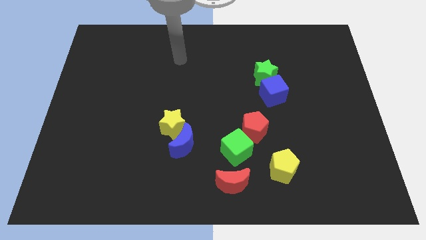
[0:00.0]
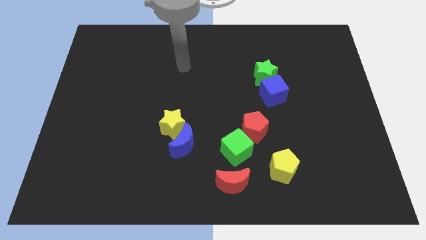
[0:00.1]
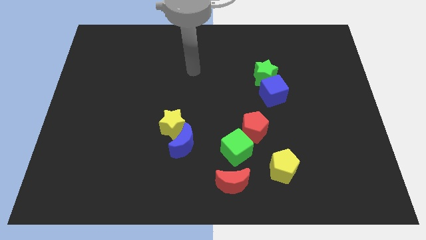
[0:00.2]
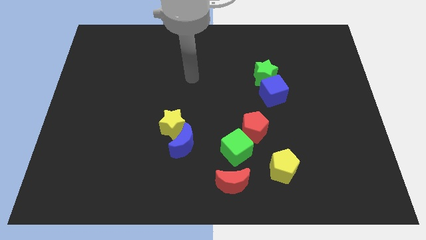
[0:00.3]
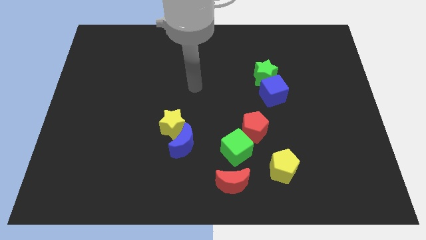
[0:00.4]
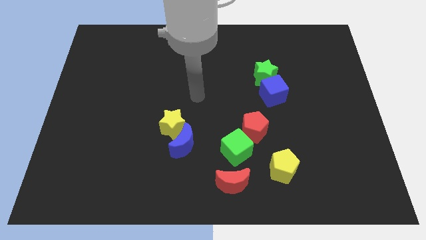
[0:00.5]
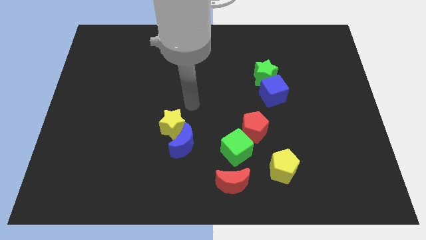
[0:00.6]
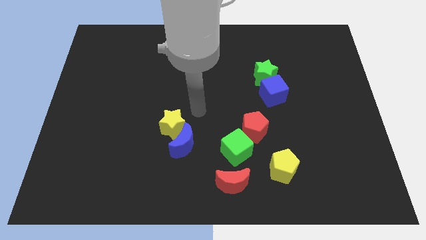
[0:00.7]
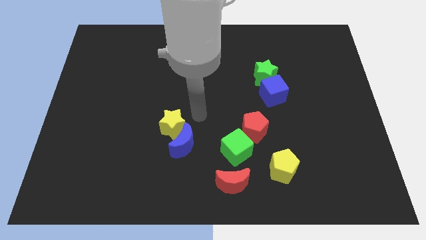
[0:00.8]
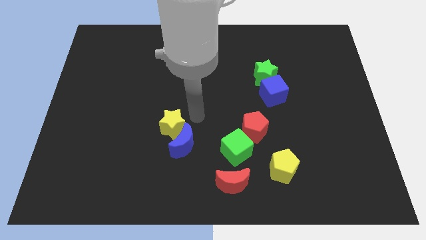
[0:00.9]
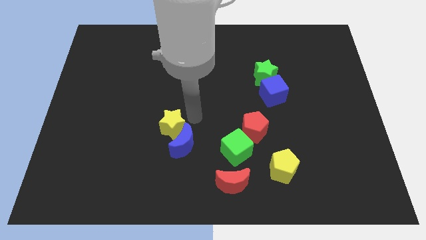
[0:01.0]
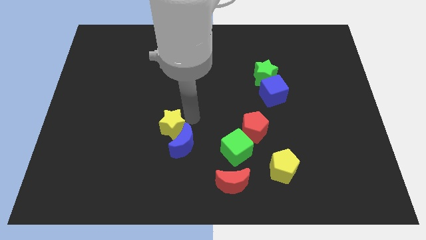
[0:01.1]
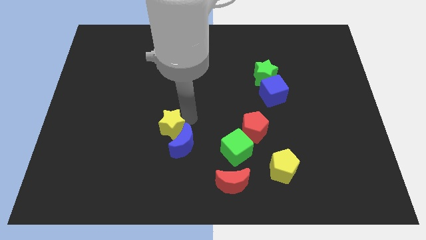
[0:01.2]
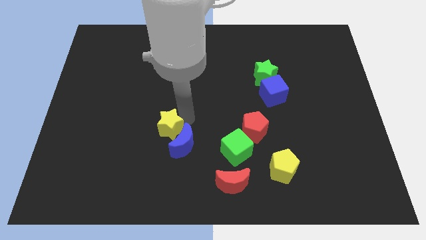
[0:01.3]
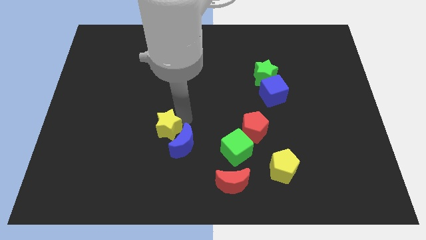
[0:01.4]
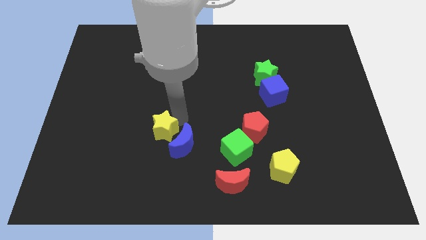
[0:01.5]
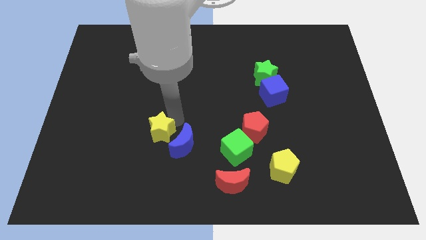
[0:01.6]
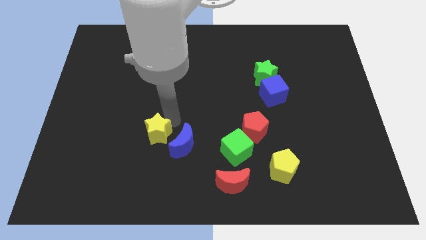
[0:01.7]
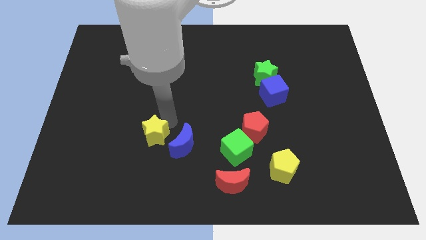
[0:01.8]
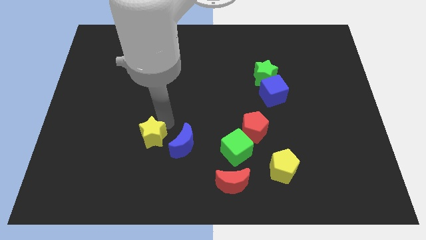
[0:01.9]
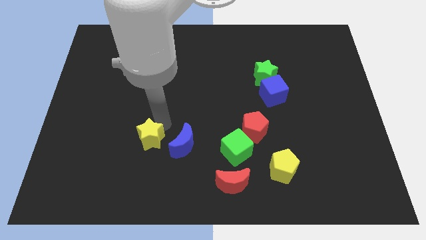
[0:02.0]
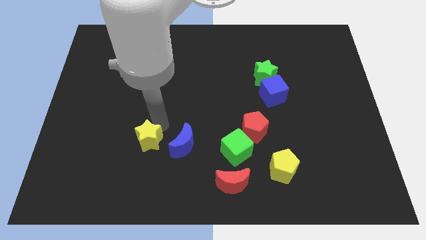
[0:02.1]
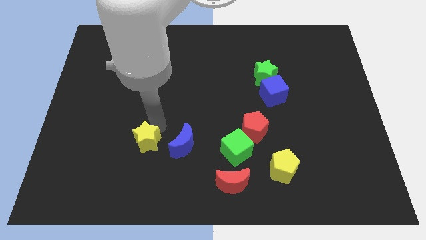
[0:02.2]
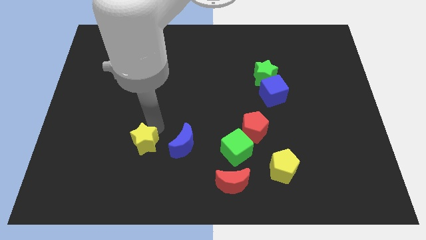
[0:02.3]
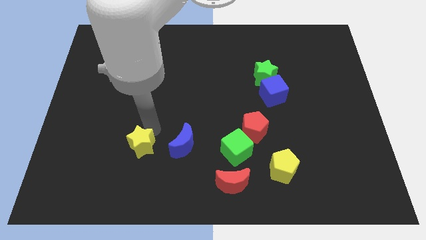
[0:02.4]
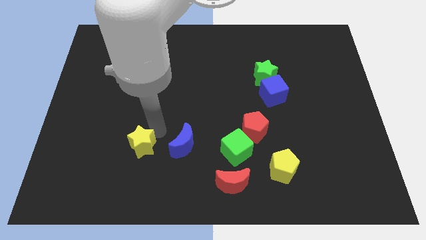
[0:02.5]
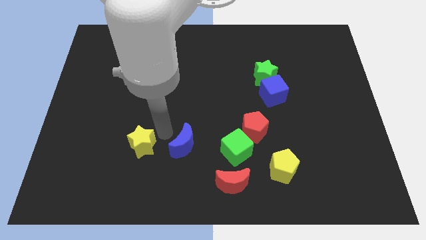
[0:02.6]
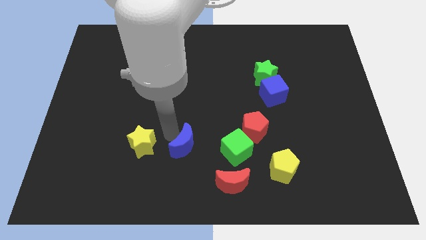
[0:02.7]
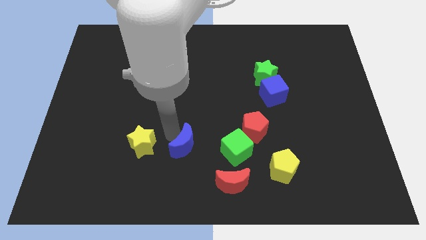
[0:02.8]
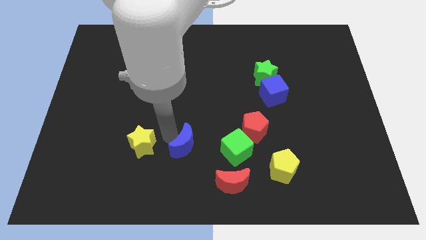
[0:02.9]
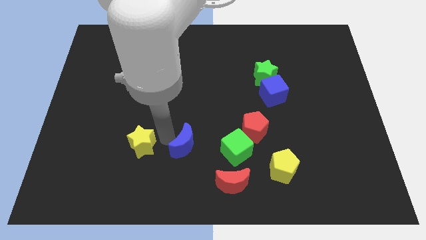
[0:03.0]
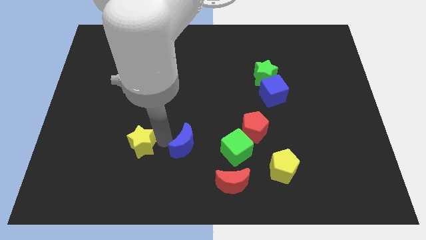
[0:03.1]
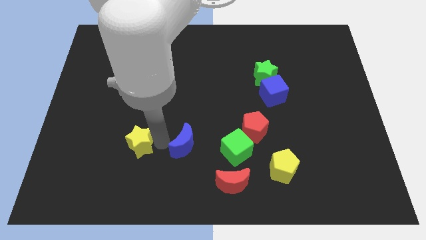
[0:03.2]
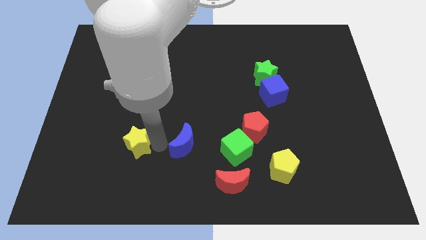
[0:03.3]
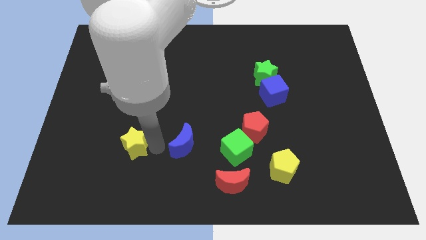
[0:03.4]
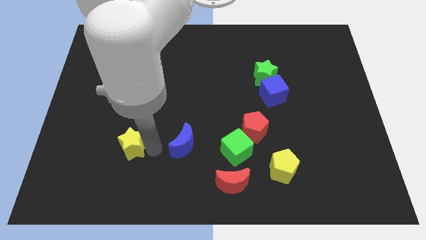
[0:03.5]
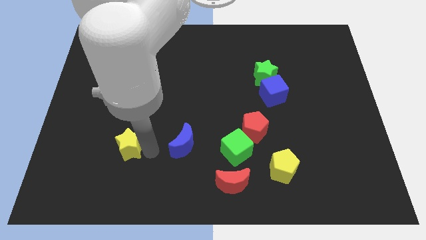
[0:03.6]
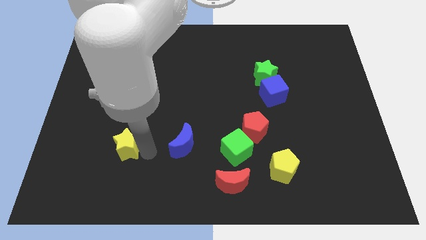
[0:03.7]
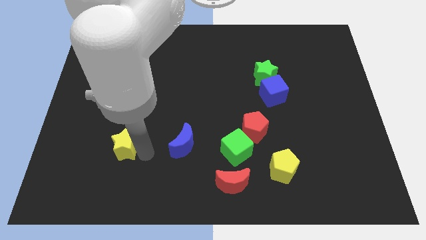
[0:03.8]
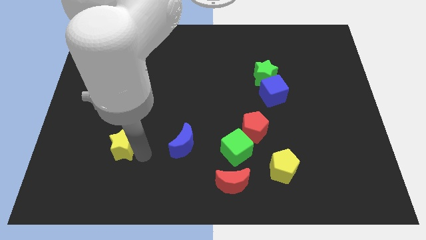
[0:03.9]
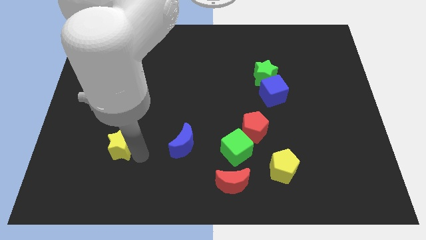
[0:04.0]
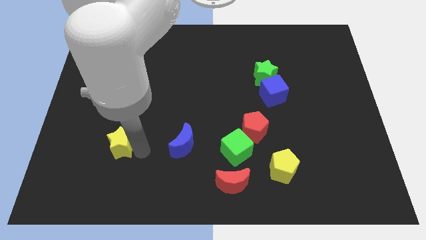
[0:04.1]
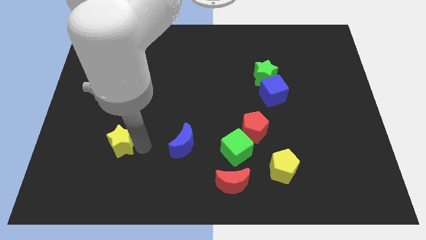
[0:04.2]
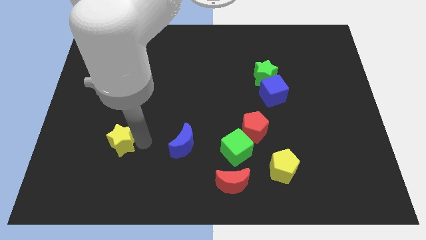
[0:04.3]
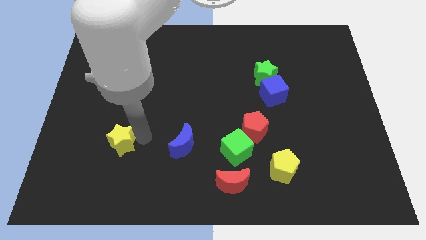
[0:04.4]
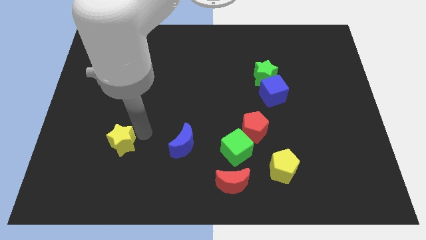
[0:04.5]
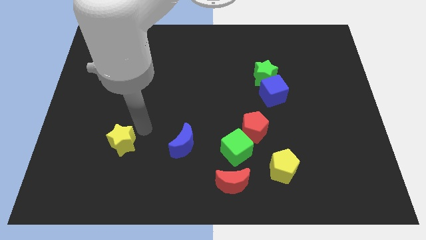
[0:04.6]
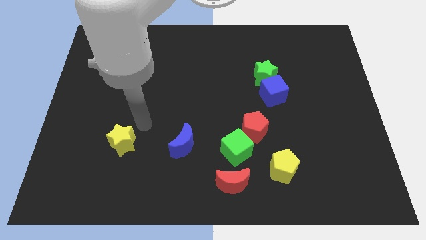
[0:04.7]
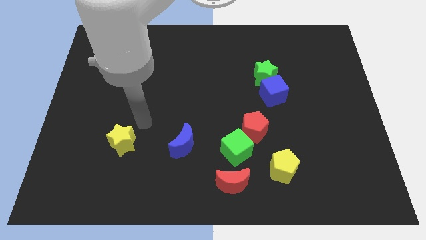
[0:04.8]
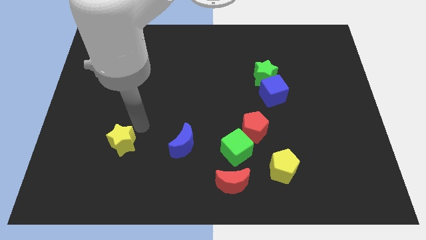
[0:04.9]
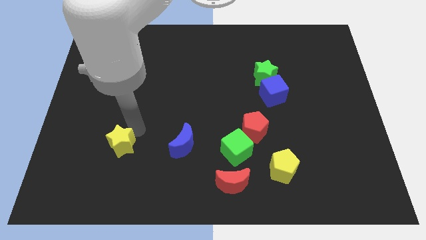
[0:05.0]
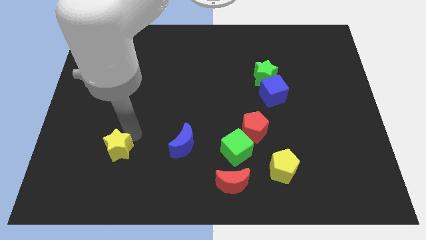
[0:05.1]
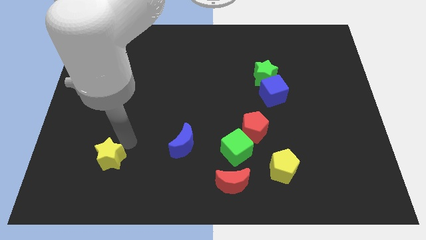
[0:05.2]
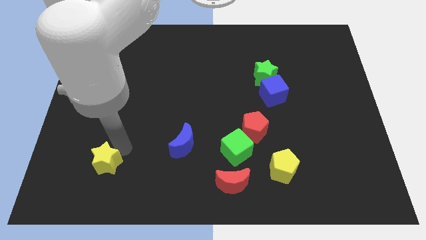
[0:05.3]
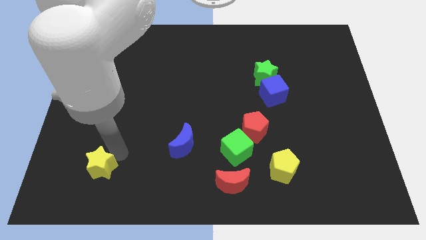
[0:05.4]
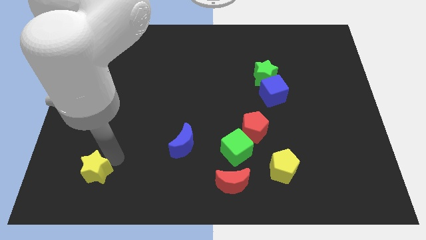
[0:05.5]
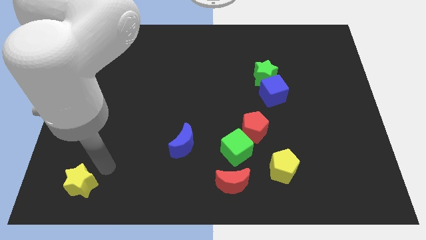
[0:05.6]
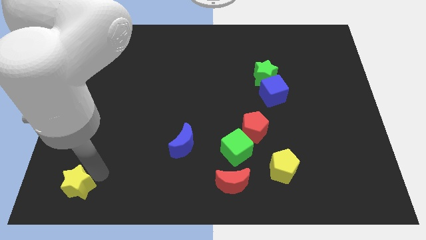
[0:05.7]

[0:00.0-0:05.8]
move the yellow star to the bottom left corner

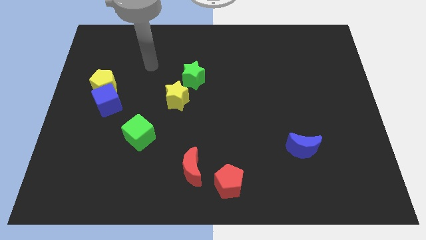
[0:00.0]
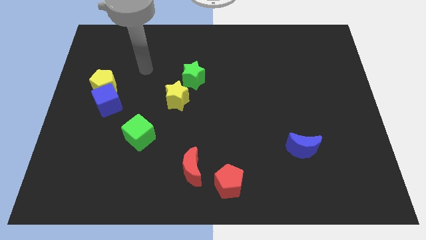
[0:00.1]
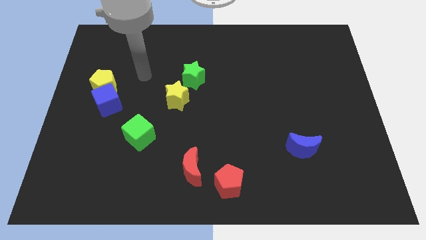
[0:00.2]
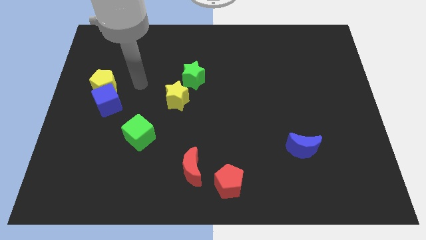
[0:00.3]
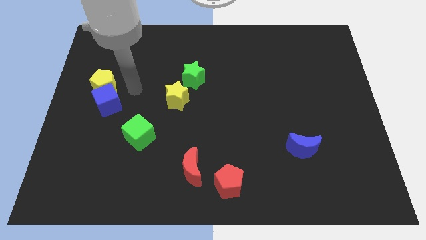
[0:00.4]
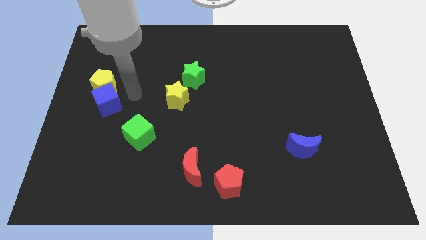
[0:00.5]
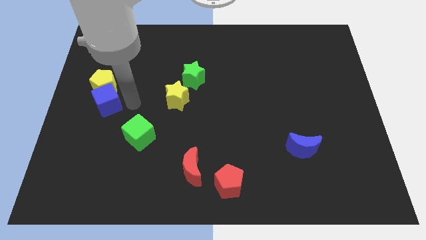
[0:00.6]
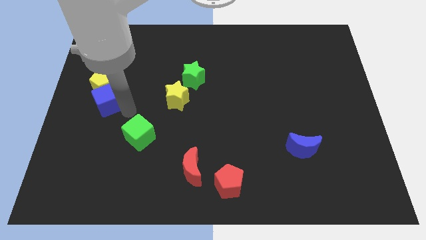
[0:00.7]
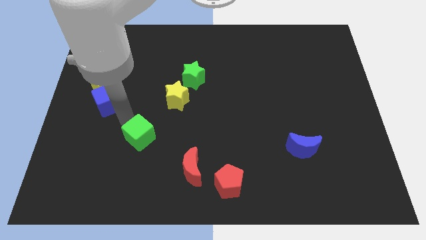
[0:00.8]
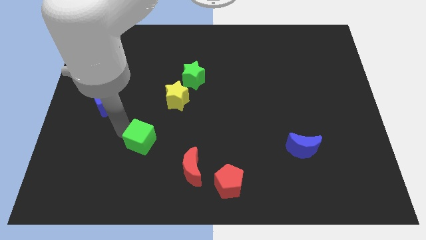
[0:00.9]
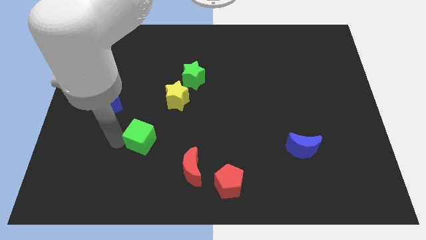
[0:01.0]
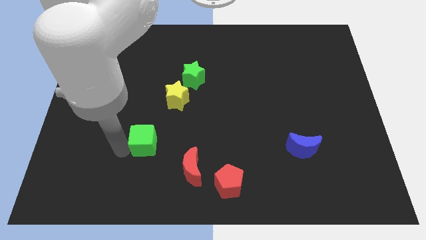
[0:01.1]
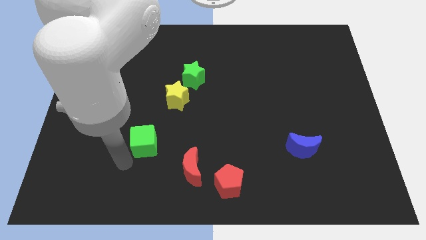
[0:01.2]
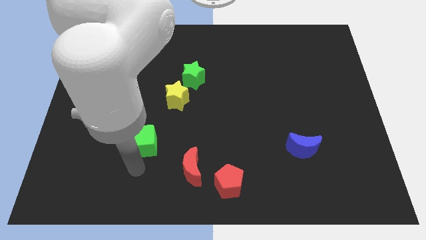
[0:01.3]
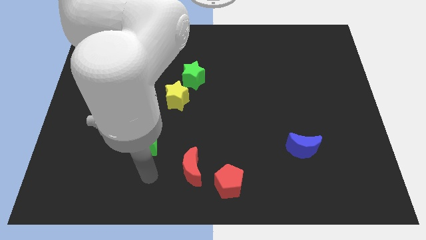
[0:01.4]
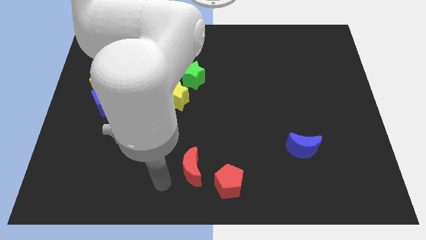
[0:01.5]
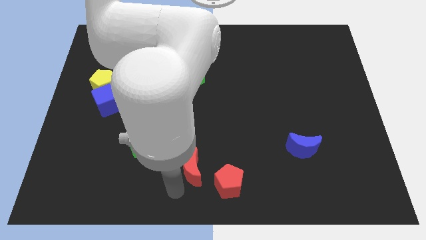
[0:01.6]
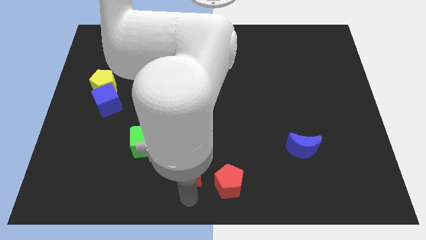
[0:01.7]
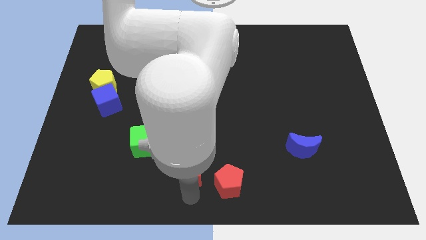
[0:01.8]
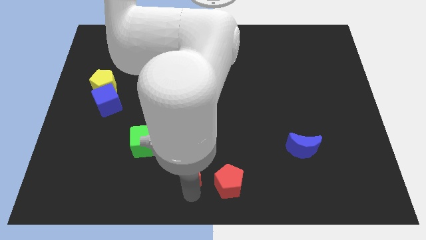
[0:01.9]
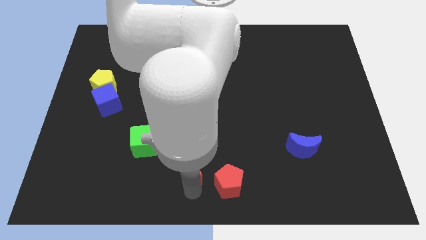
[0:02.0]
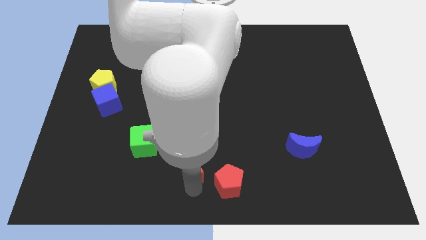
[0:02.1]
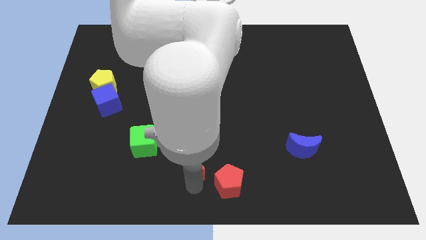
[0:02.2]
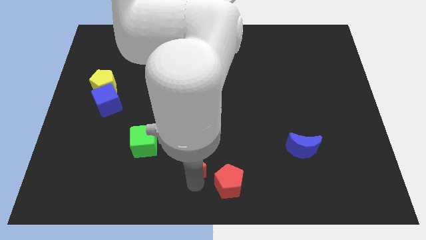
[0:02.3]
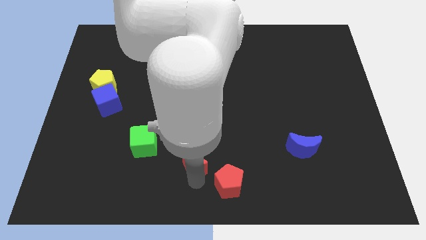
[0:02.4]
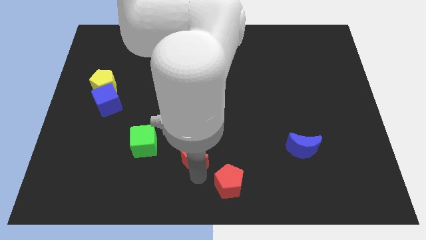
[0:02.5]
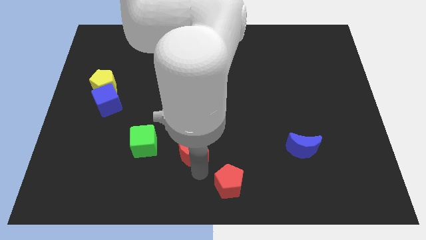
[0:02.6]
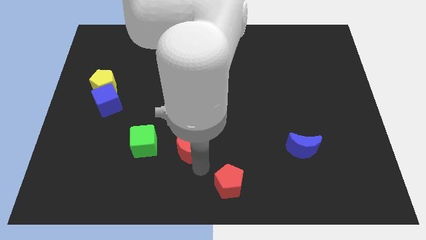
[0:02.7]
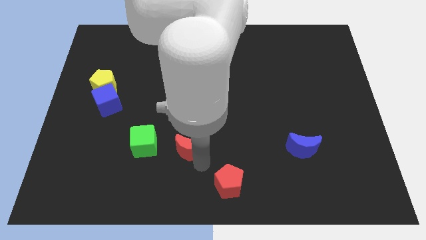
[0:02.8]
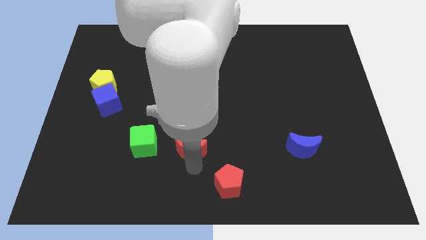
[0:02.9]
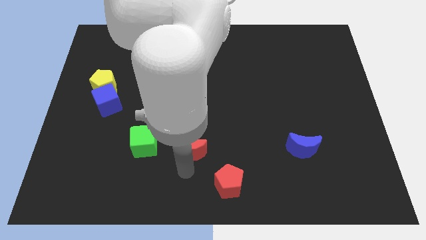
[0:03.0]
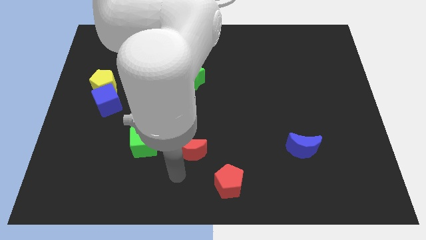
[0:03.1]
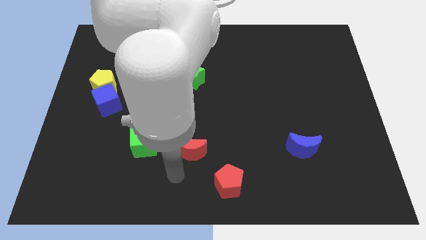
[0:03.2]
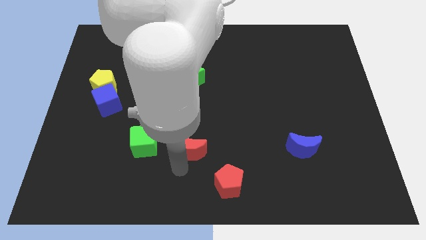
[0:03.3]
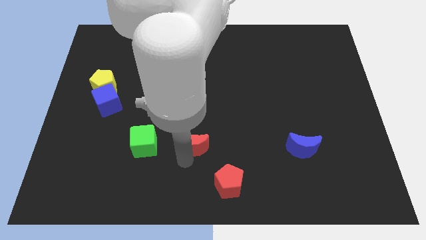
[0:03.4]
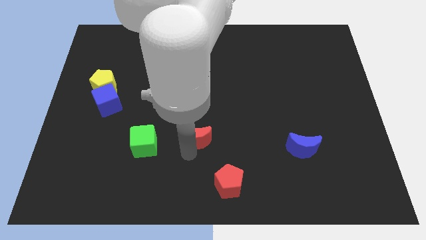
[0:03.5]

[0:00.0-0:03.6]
put the red moon to the middle of the board
